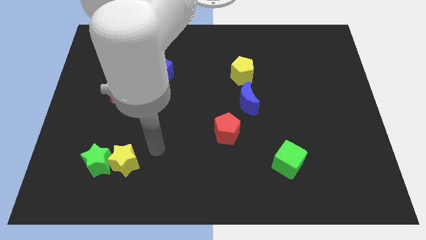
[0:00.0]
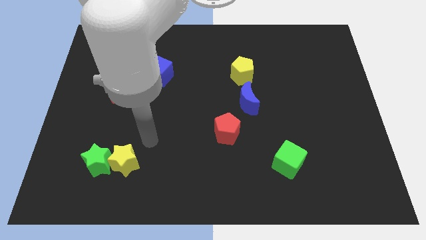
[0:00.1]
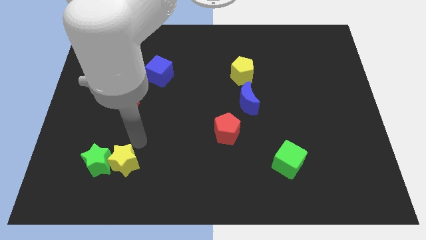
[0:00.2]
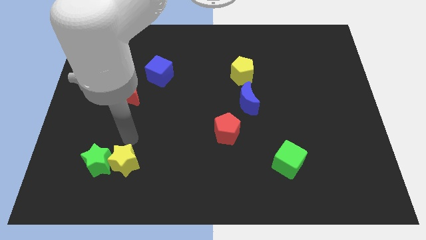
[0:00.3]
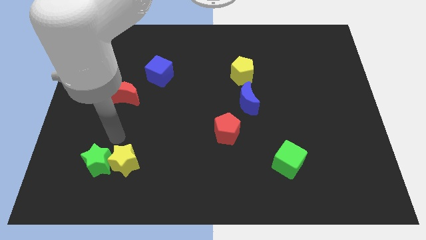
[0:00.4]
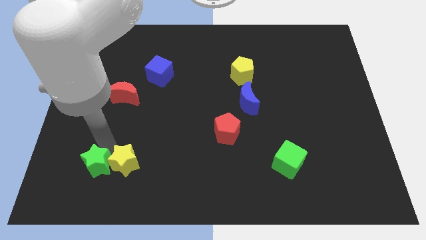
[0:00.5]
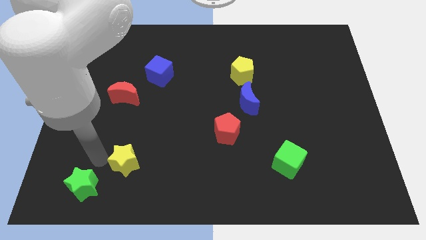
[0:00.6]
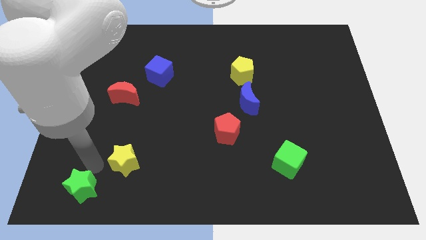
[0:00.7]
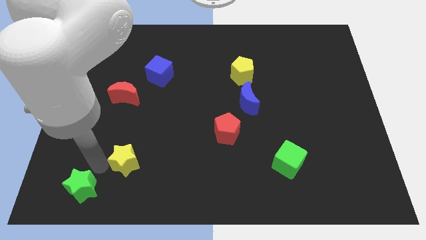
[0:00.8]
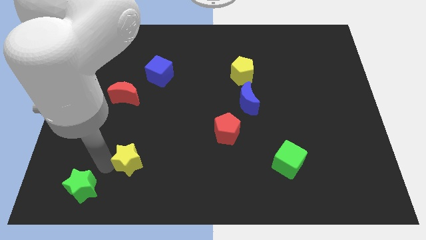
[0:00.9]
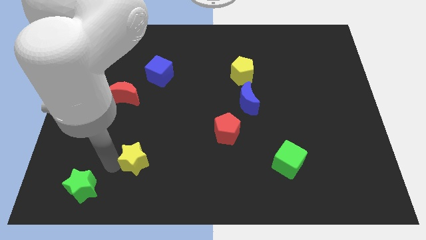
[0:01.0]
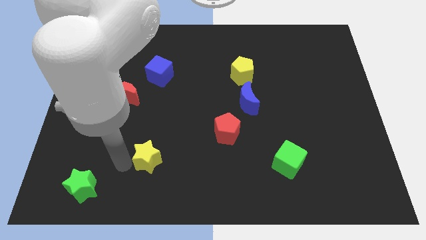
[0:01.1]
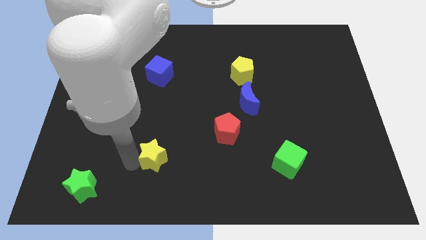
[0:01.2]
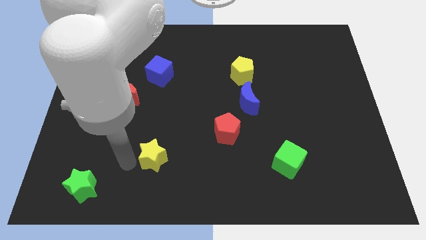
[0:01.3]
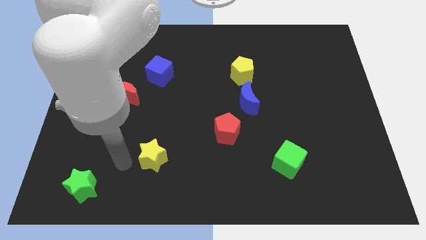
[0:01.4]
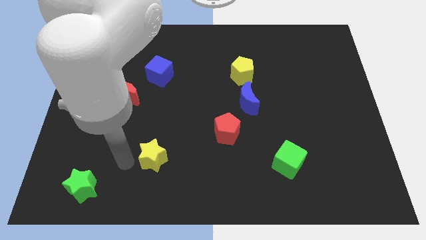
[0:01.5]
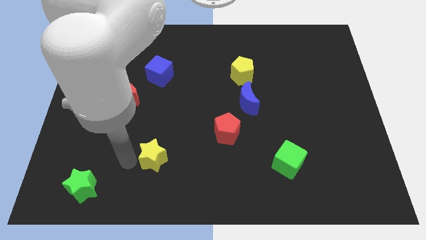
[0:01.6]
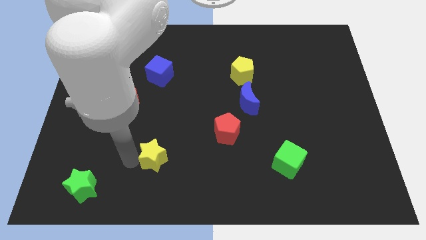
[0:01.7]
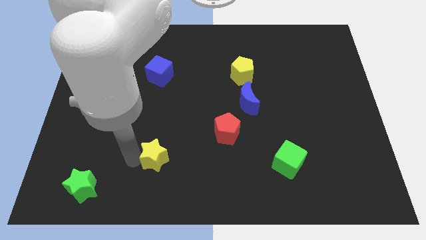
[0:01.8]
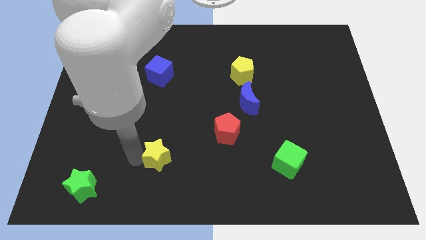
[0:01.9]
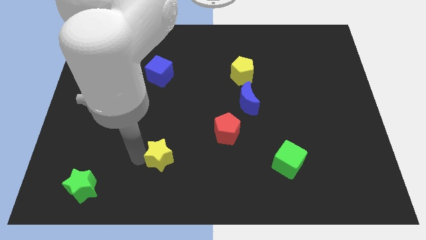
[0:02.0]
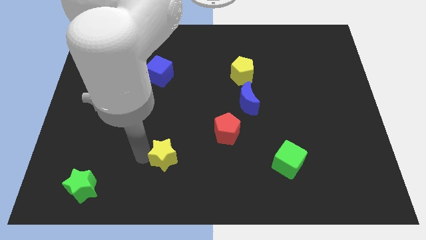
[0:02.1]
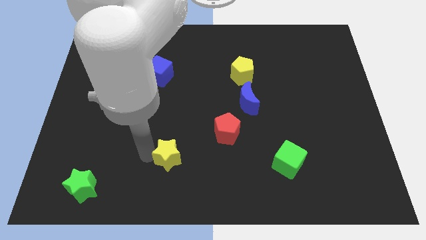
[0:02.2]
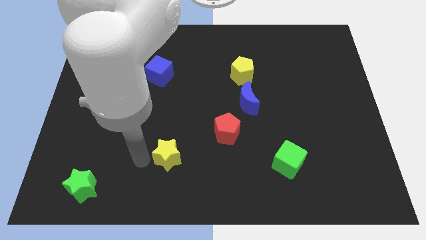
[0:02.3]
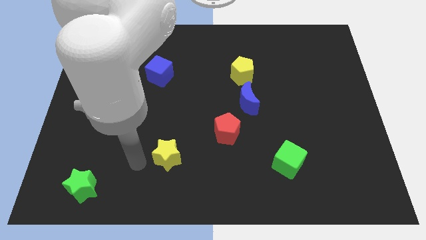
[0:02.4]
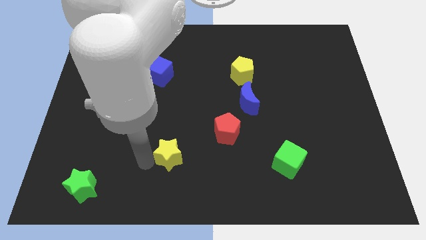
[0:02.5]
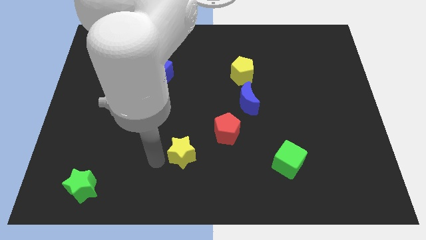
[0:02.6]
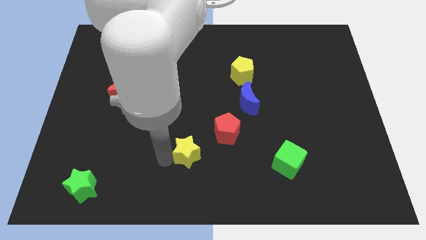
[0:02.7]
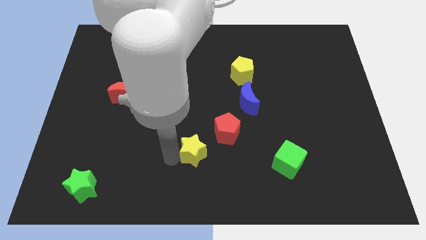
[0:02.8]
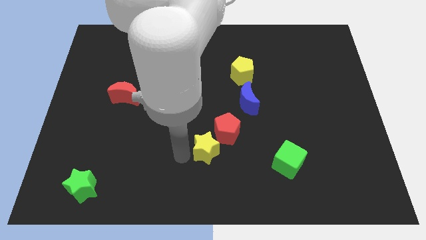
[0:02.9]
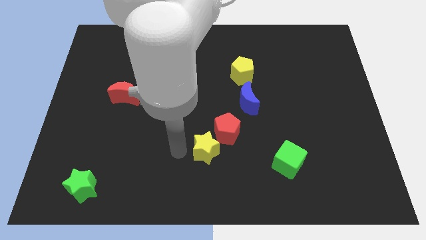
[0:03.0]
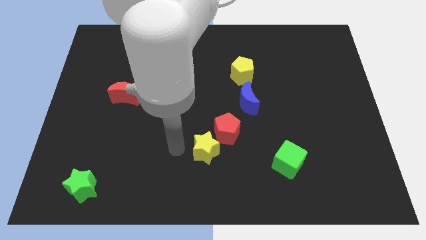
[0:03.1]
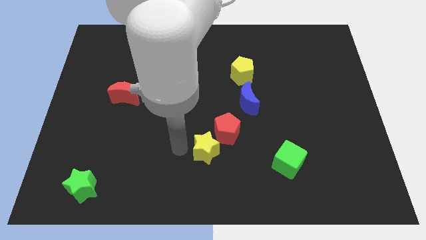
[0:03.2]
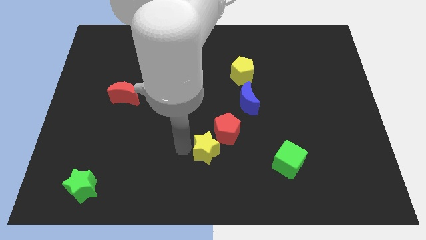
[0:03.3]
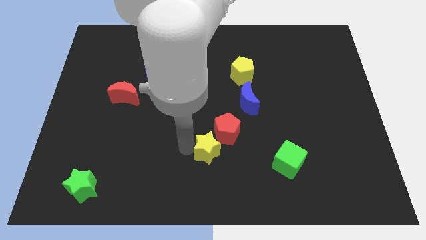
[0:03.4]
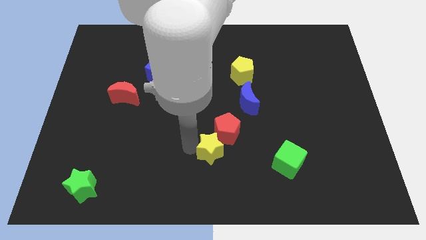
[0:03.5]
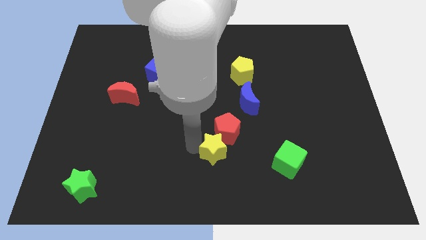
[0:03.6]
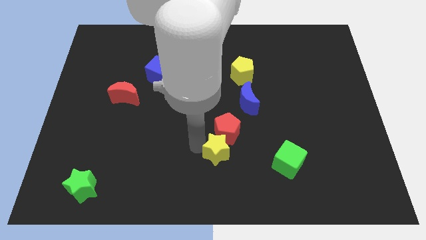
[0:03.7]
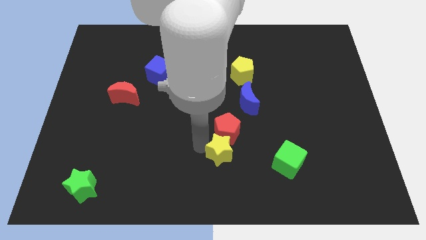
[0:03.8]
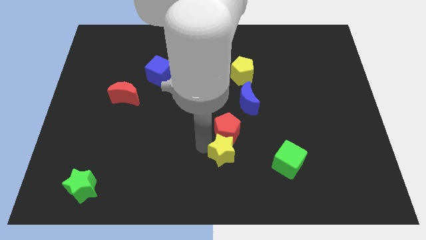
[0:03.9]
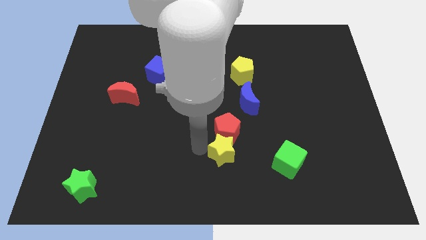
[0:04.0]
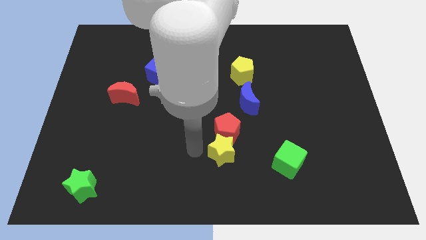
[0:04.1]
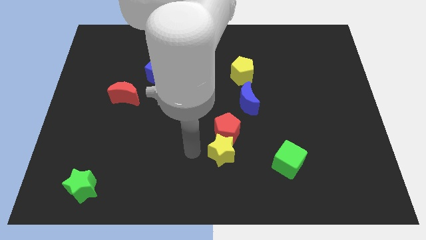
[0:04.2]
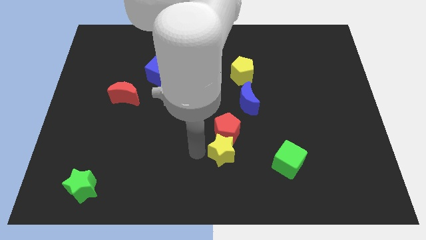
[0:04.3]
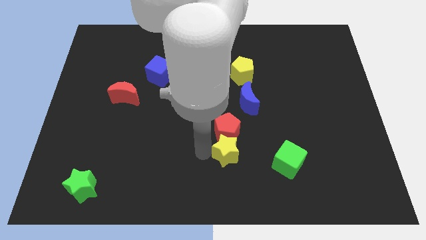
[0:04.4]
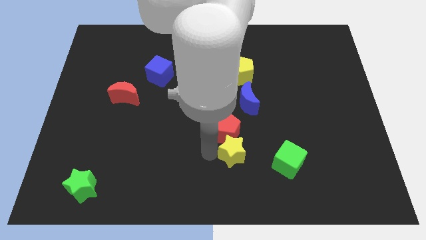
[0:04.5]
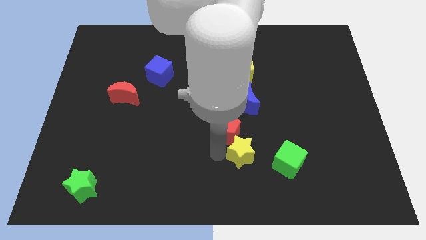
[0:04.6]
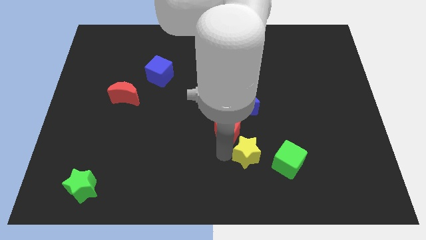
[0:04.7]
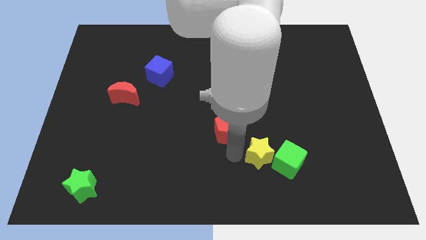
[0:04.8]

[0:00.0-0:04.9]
push the yellow star close to the green cube

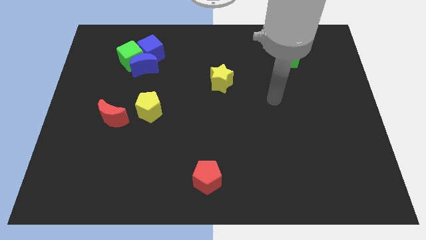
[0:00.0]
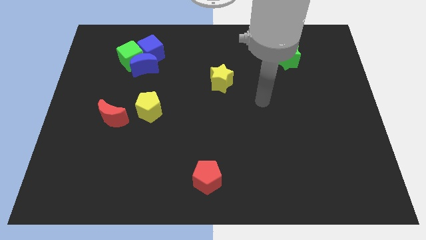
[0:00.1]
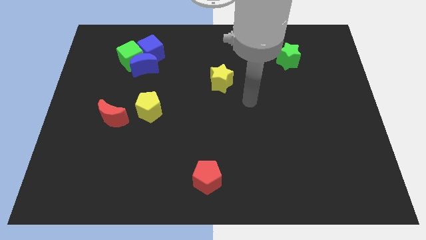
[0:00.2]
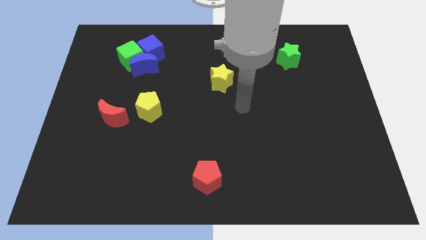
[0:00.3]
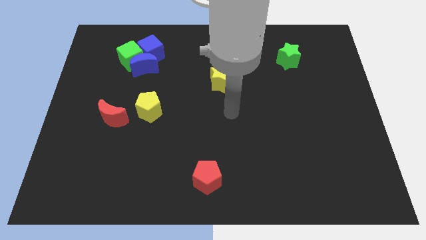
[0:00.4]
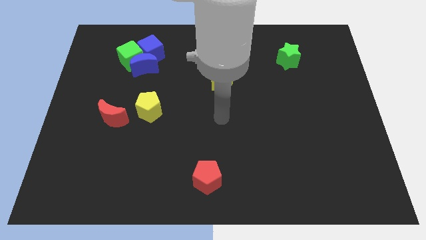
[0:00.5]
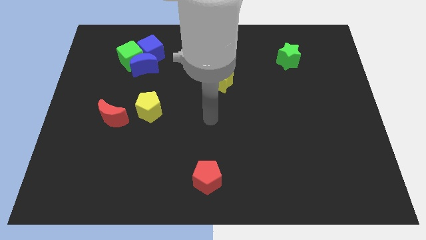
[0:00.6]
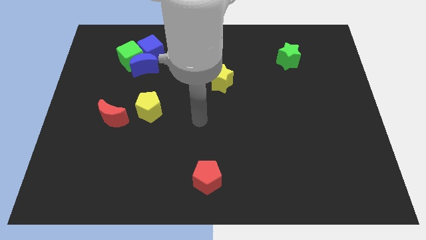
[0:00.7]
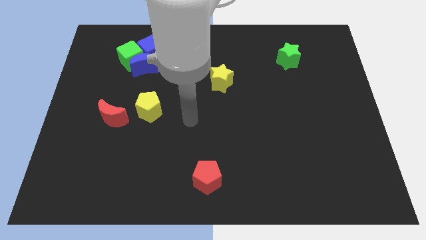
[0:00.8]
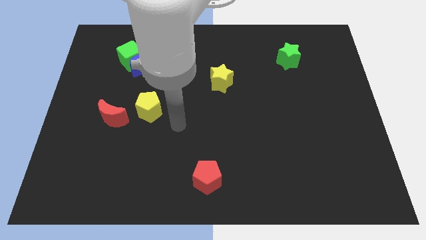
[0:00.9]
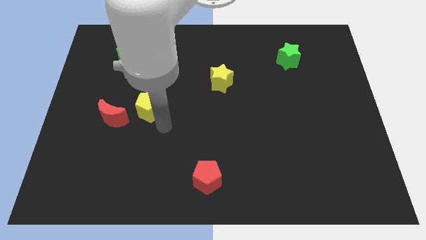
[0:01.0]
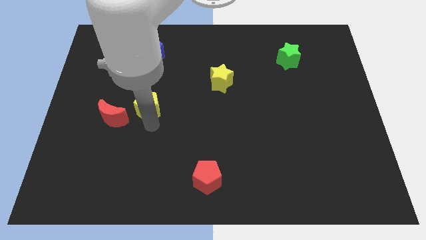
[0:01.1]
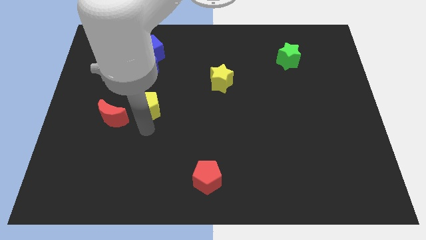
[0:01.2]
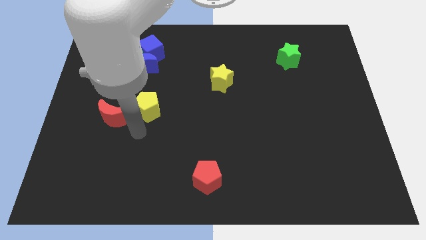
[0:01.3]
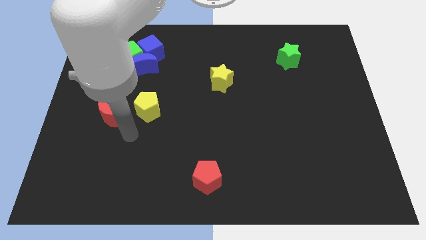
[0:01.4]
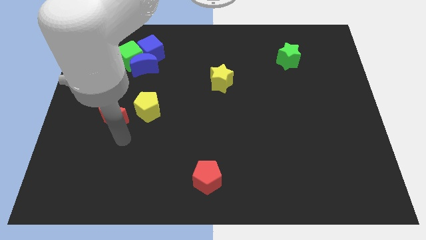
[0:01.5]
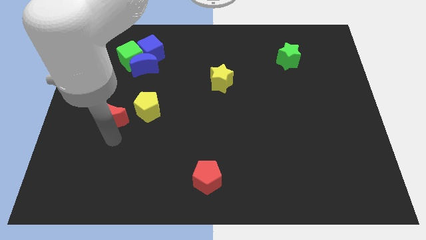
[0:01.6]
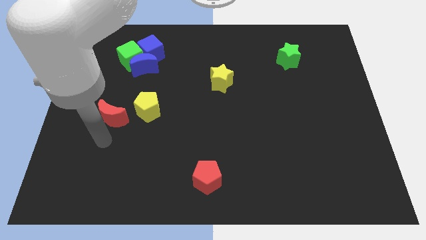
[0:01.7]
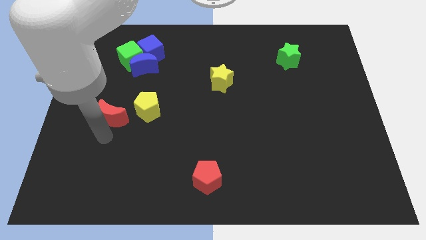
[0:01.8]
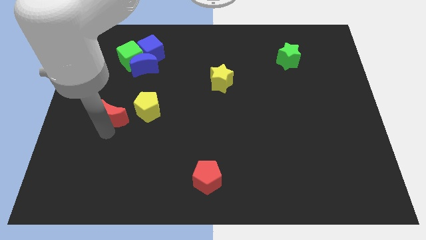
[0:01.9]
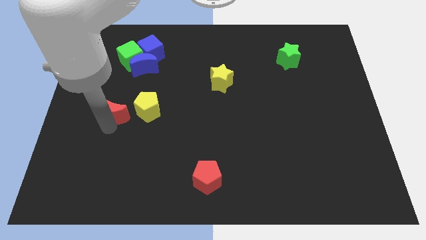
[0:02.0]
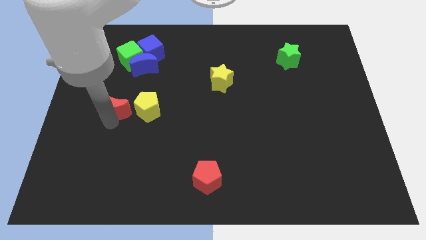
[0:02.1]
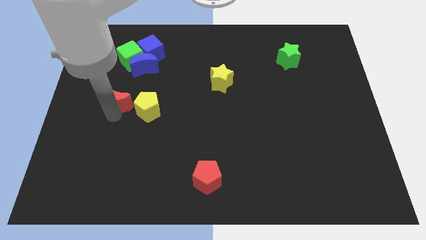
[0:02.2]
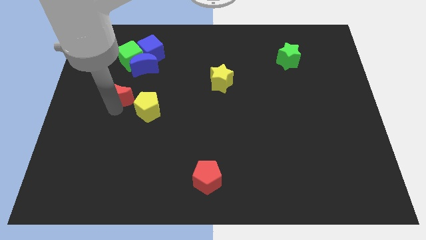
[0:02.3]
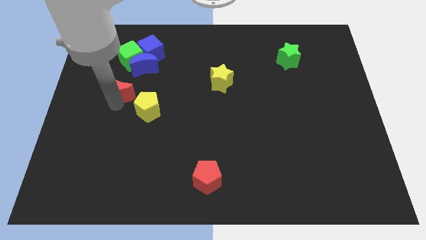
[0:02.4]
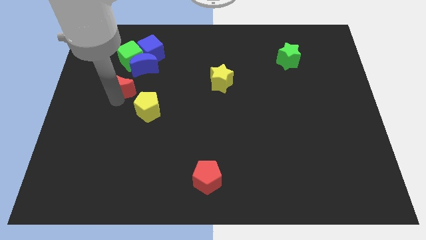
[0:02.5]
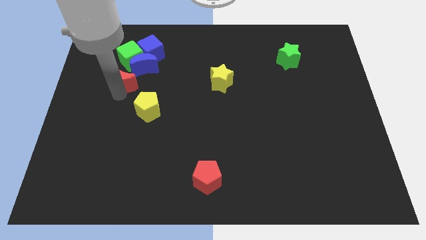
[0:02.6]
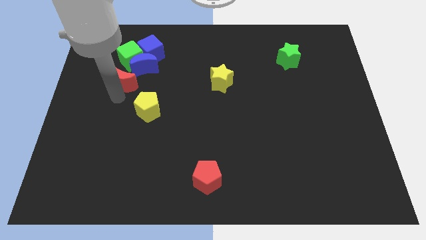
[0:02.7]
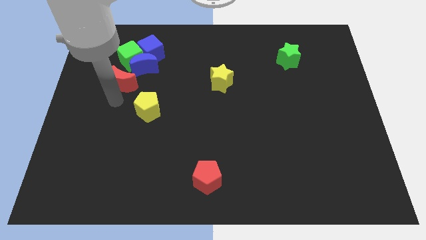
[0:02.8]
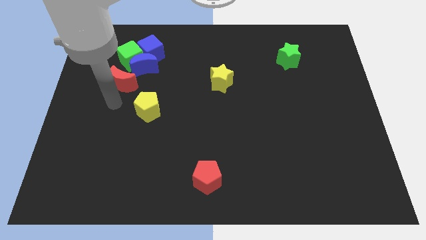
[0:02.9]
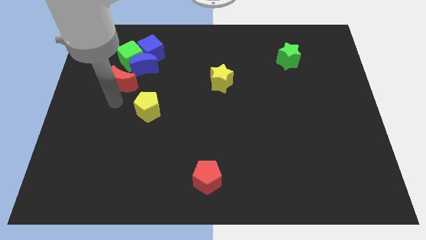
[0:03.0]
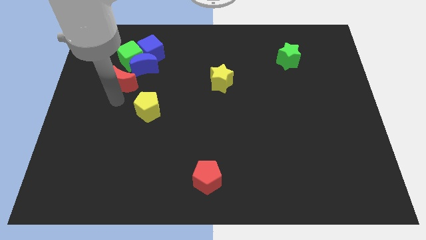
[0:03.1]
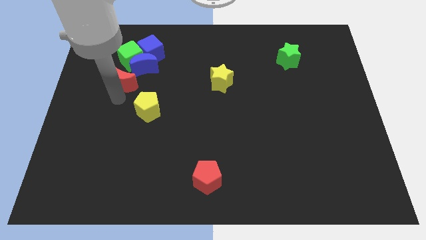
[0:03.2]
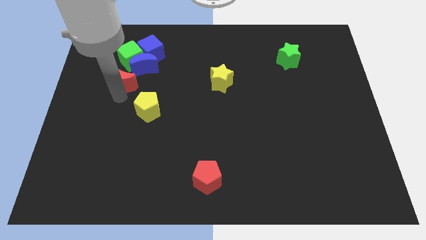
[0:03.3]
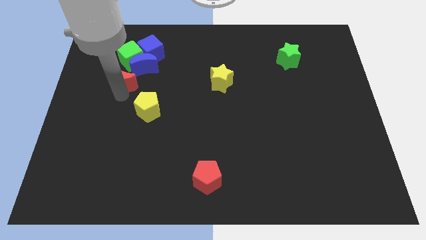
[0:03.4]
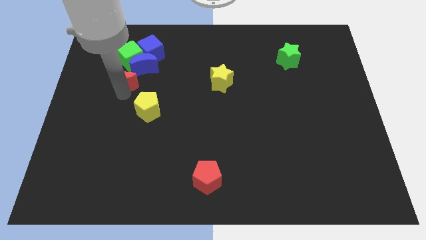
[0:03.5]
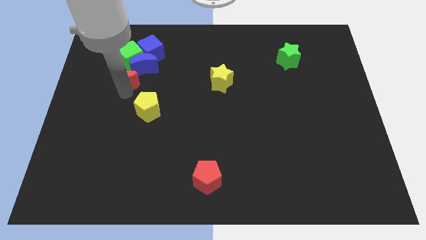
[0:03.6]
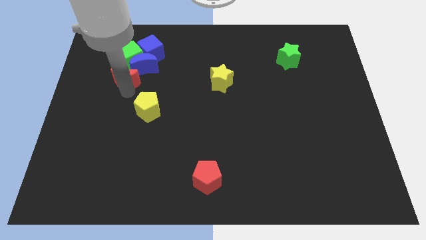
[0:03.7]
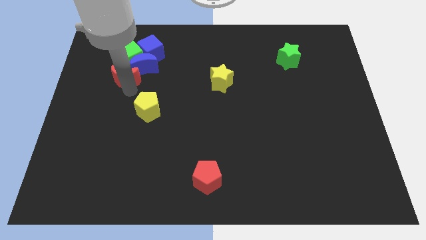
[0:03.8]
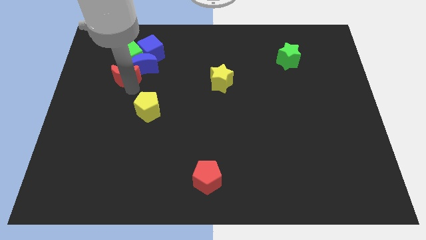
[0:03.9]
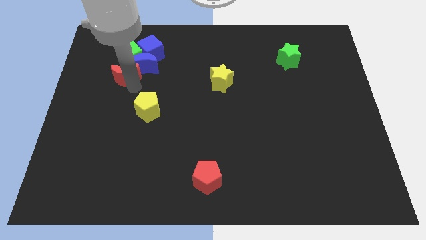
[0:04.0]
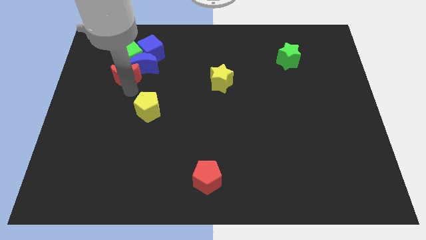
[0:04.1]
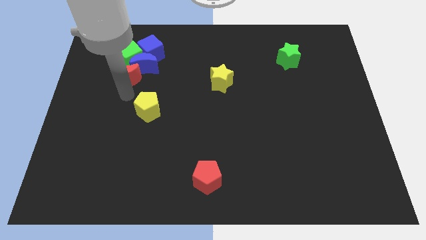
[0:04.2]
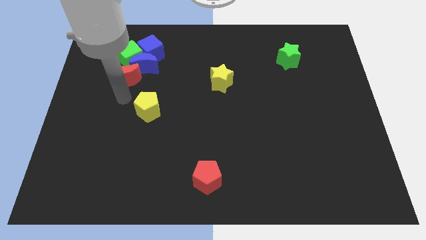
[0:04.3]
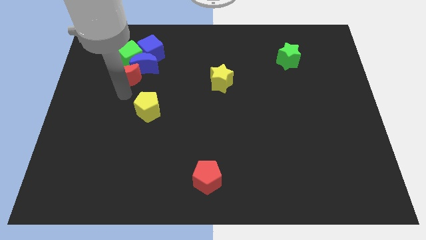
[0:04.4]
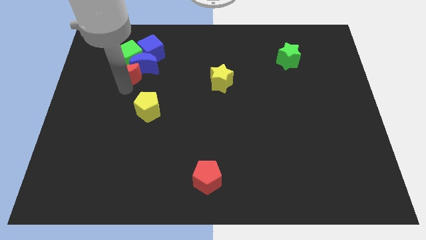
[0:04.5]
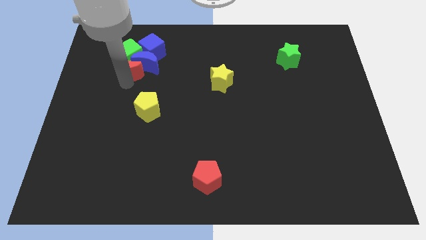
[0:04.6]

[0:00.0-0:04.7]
move the red moon towards the green cube
